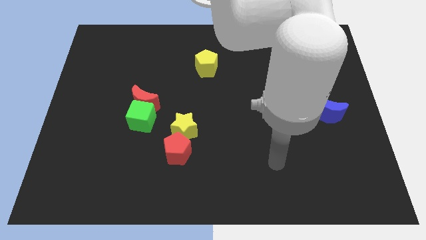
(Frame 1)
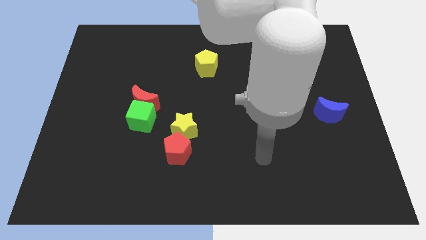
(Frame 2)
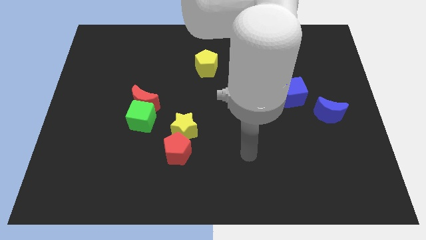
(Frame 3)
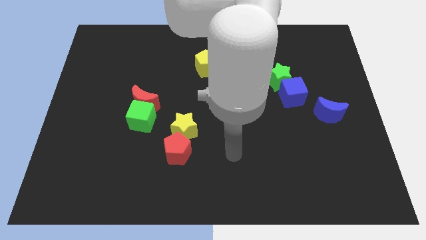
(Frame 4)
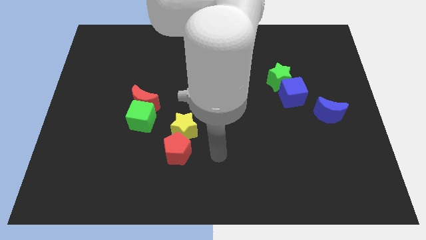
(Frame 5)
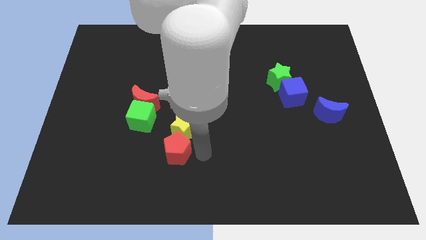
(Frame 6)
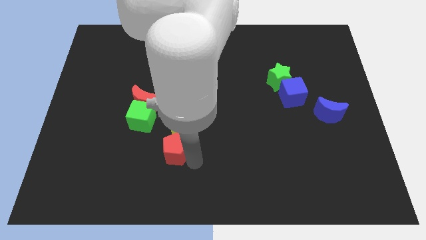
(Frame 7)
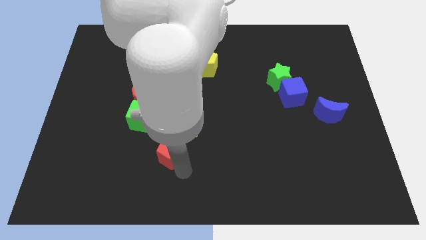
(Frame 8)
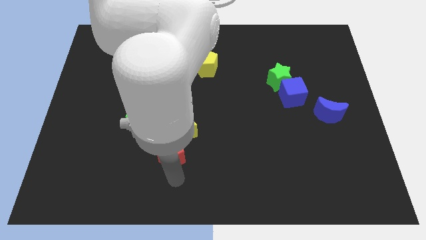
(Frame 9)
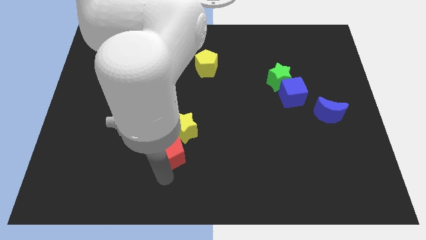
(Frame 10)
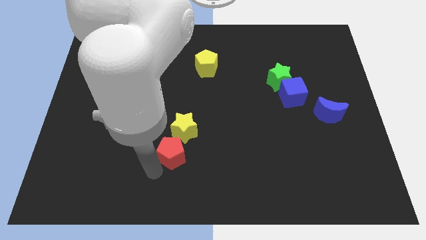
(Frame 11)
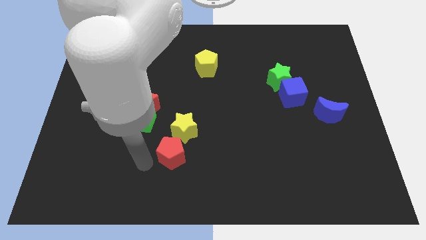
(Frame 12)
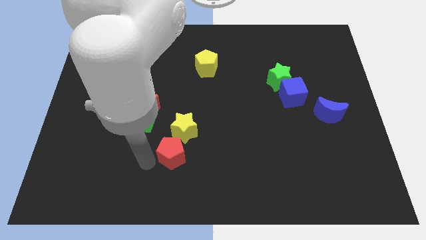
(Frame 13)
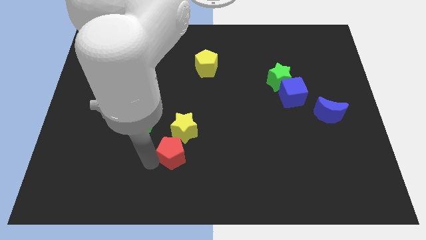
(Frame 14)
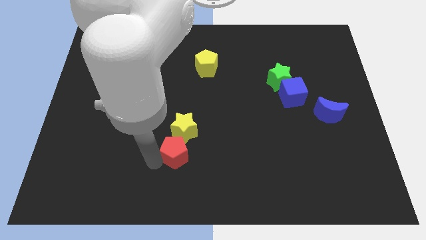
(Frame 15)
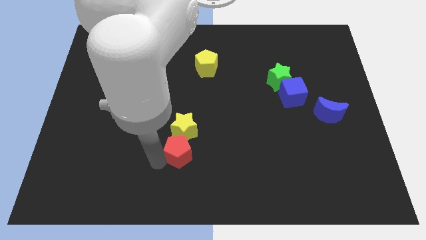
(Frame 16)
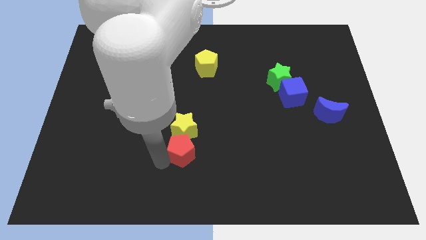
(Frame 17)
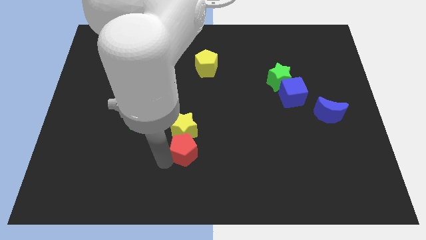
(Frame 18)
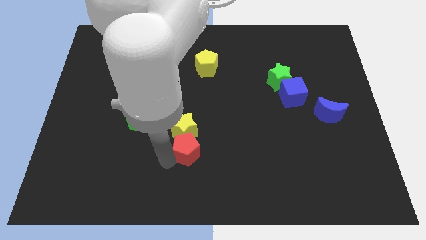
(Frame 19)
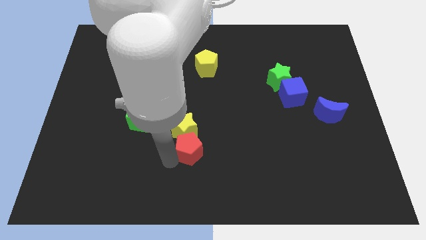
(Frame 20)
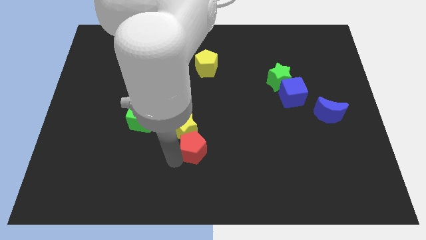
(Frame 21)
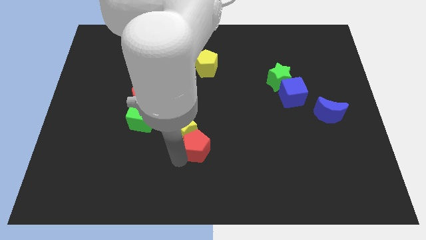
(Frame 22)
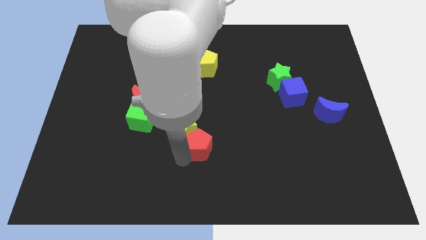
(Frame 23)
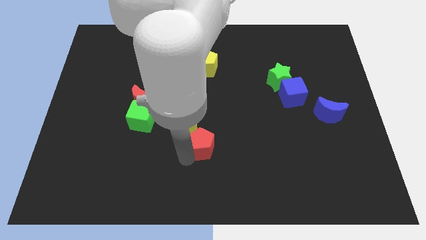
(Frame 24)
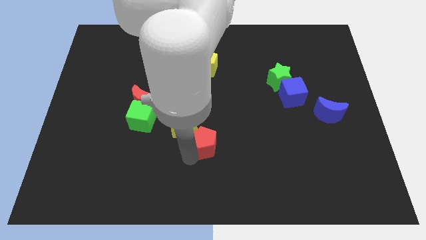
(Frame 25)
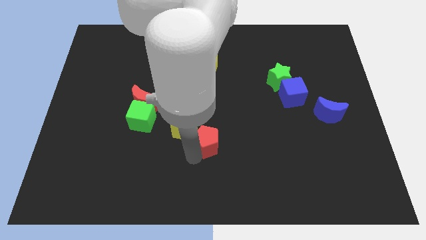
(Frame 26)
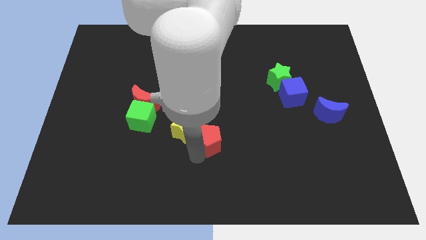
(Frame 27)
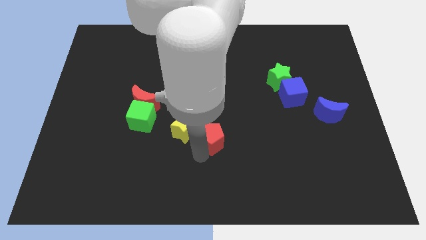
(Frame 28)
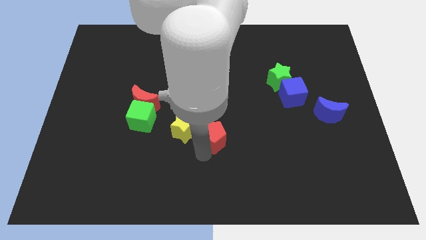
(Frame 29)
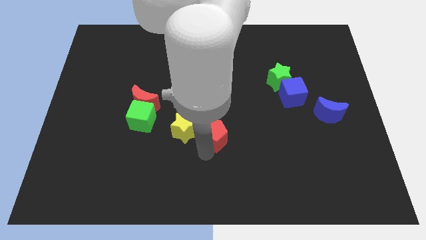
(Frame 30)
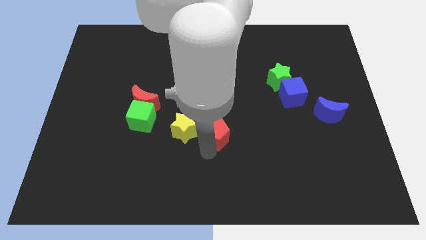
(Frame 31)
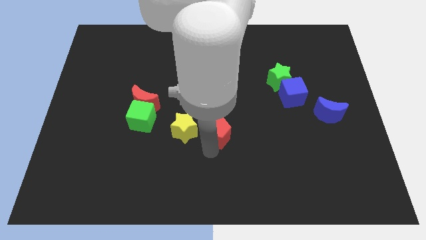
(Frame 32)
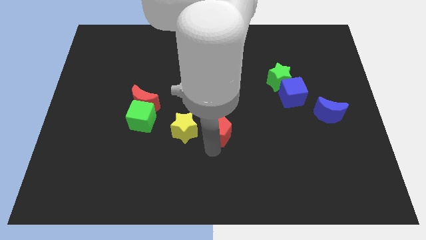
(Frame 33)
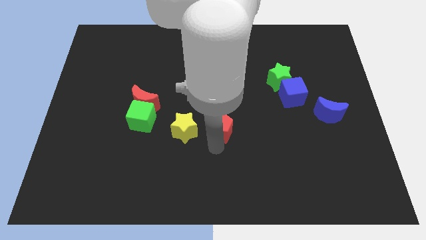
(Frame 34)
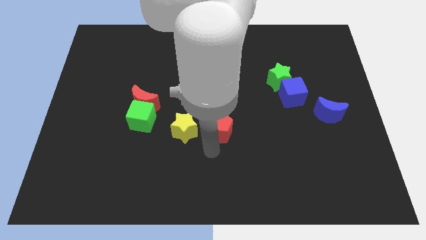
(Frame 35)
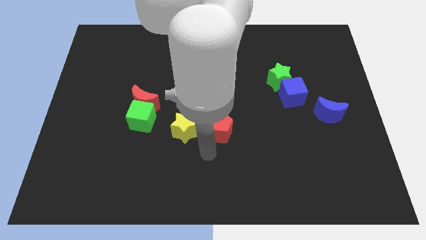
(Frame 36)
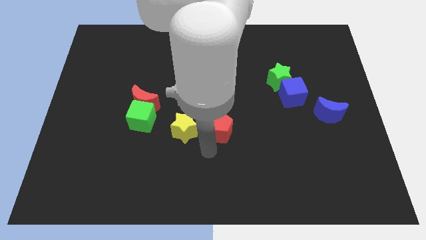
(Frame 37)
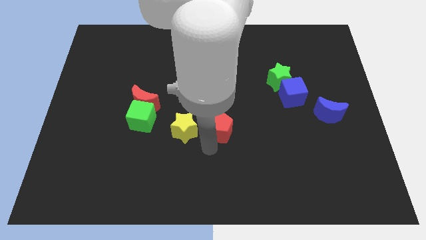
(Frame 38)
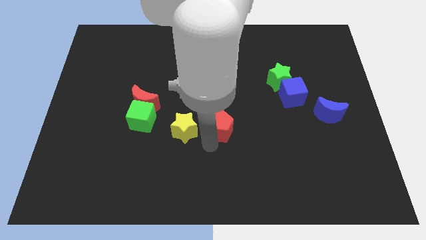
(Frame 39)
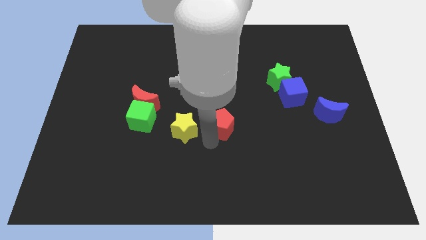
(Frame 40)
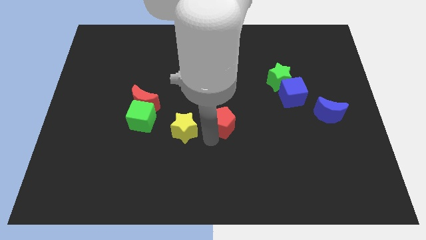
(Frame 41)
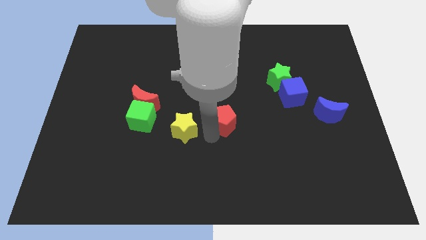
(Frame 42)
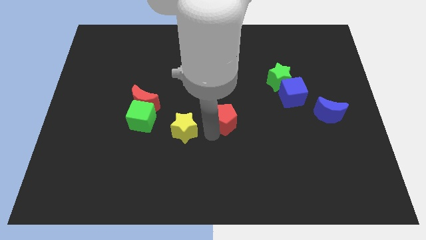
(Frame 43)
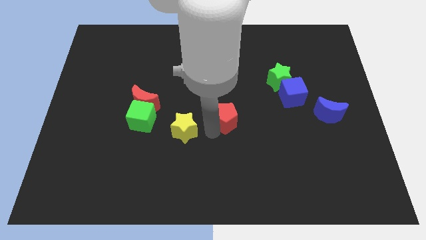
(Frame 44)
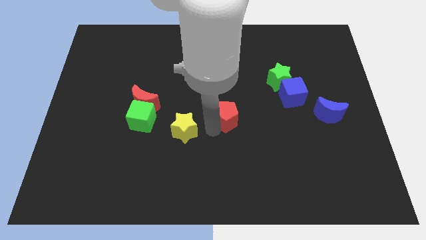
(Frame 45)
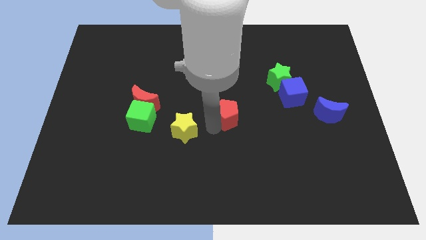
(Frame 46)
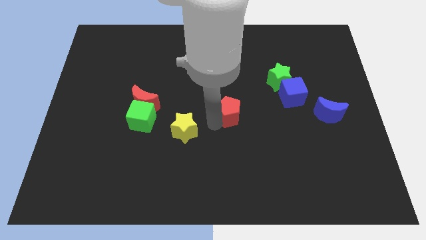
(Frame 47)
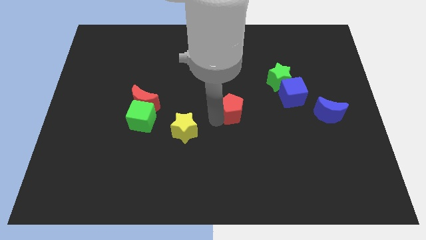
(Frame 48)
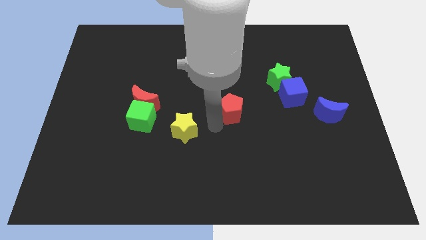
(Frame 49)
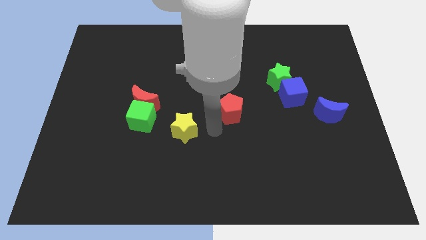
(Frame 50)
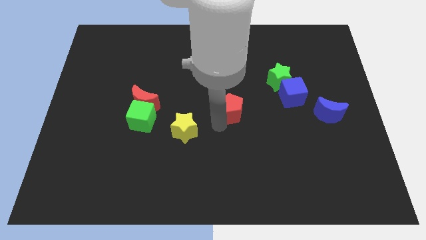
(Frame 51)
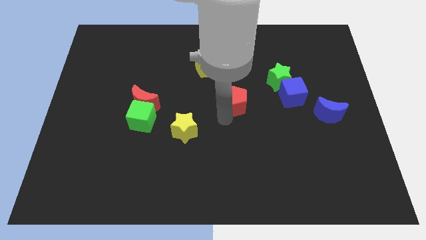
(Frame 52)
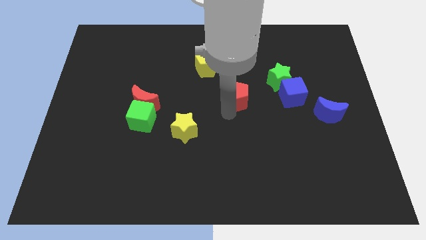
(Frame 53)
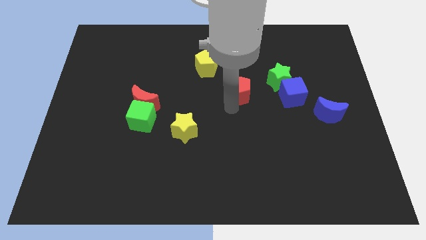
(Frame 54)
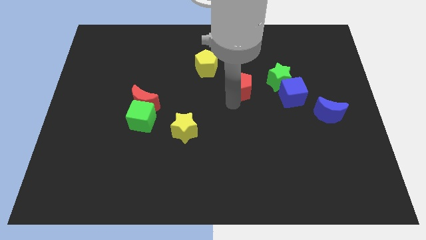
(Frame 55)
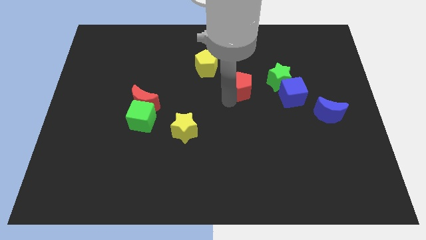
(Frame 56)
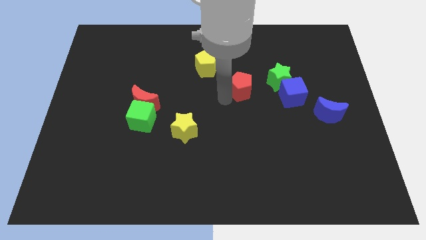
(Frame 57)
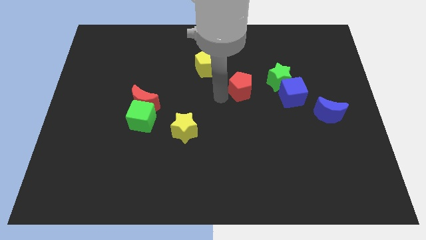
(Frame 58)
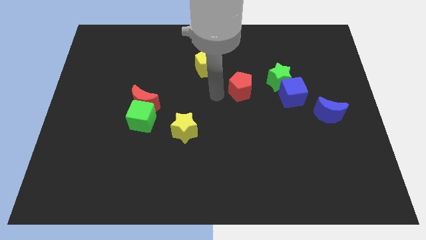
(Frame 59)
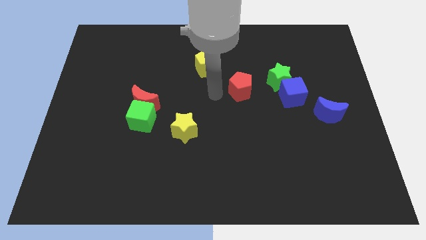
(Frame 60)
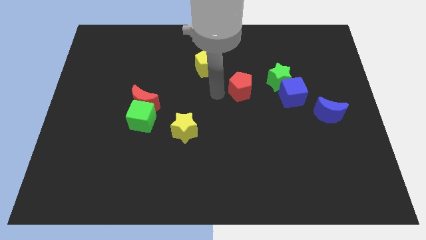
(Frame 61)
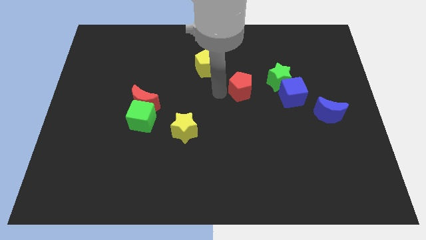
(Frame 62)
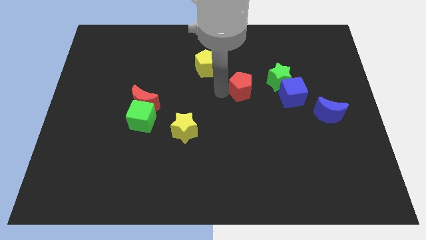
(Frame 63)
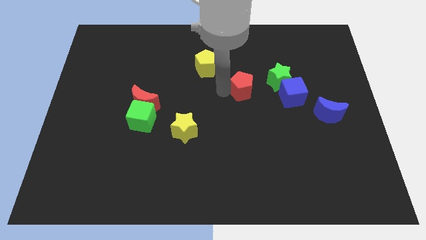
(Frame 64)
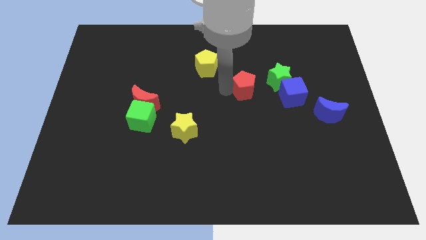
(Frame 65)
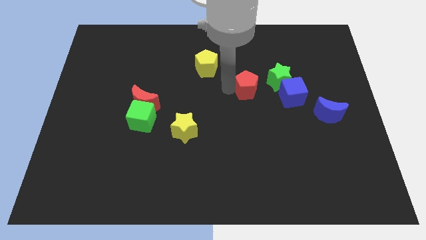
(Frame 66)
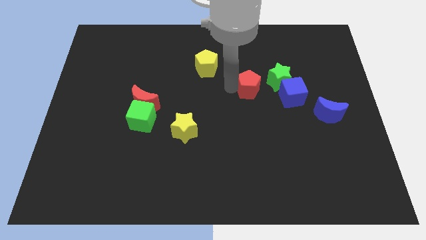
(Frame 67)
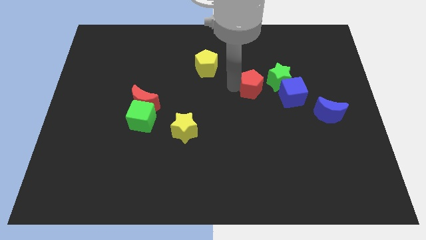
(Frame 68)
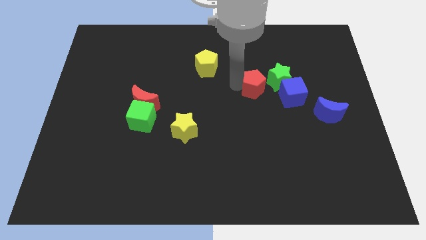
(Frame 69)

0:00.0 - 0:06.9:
move the red pentagon to the top left of the blue cube

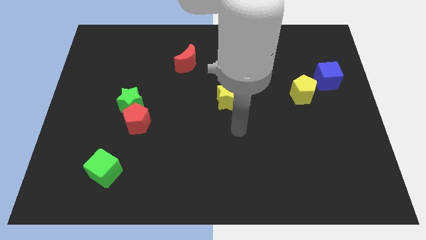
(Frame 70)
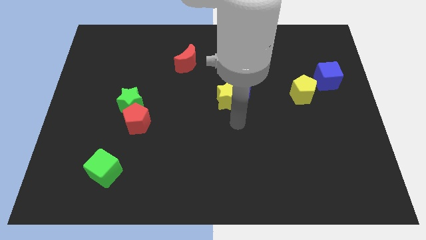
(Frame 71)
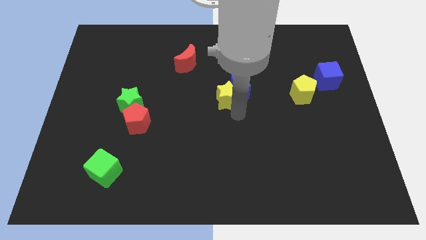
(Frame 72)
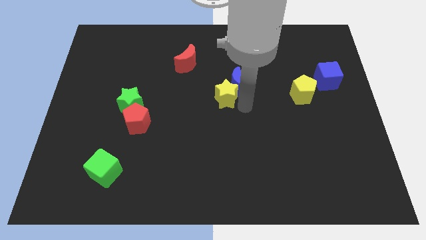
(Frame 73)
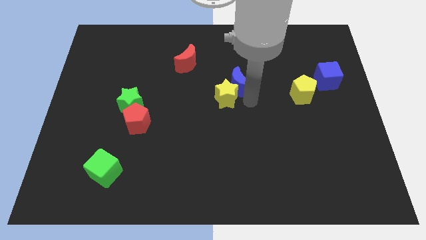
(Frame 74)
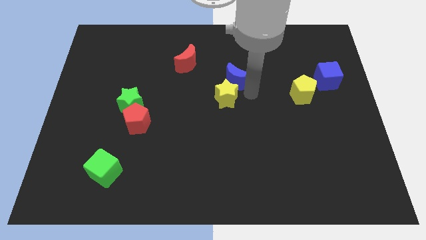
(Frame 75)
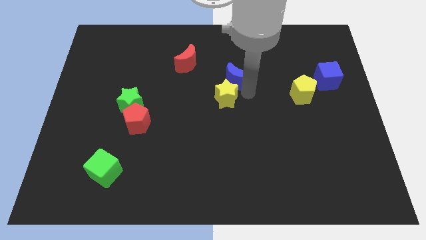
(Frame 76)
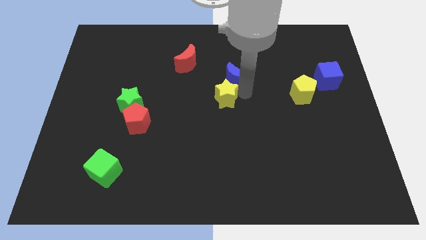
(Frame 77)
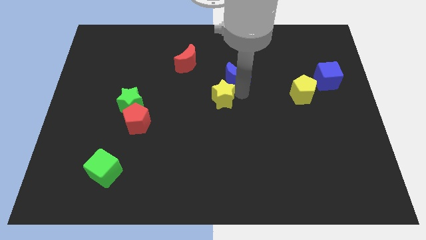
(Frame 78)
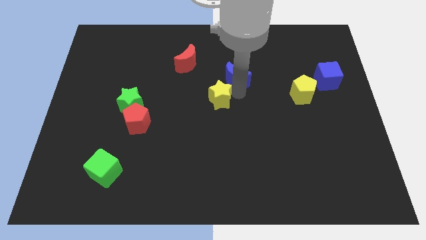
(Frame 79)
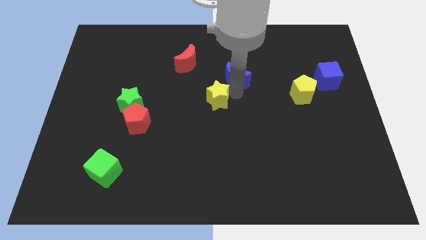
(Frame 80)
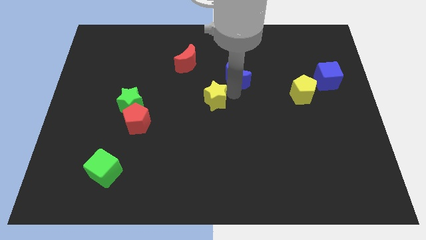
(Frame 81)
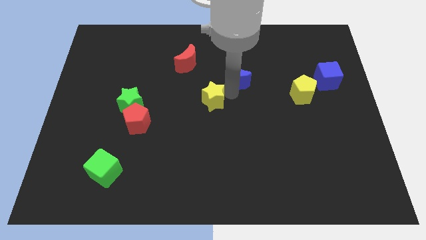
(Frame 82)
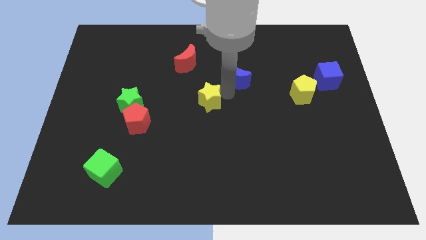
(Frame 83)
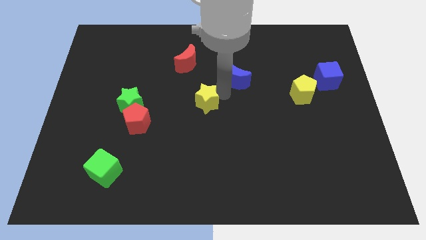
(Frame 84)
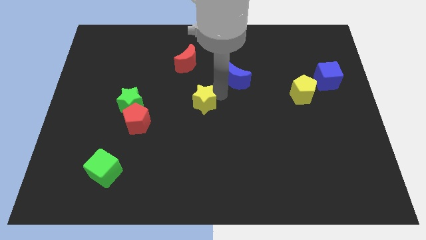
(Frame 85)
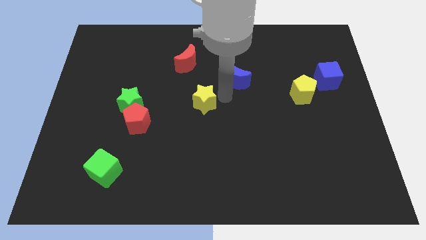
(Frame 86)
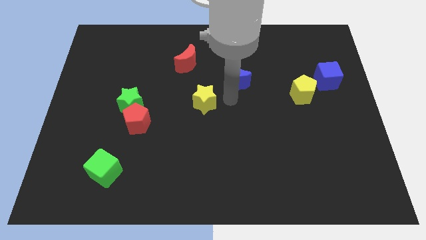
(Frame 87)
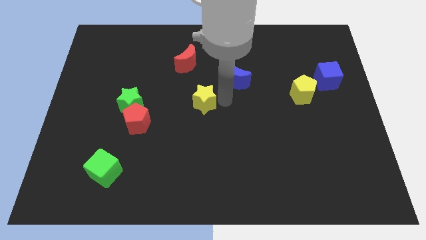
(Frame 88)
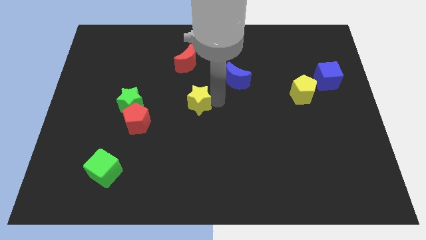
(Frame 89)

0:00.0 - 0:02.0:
move the yellow star to the right of the green star
